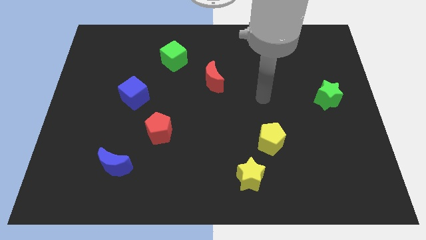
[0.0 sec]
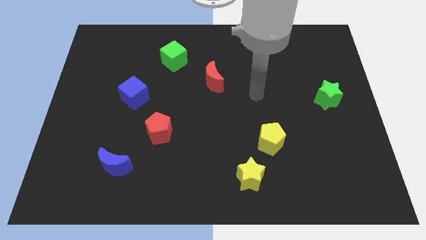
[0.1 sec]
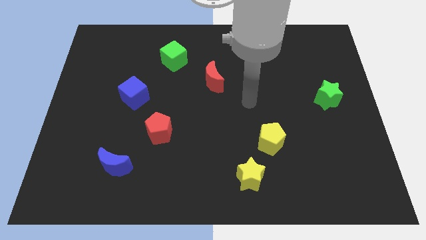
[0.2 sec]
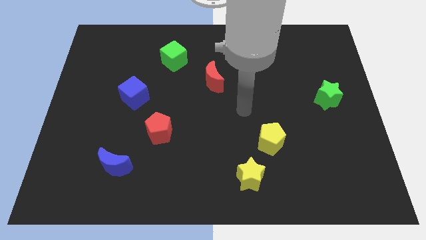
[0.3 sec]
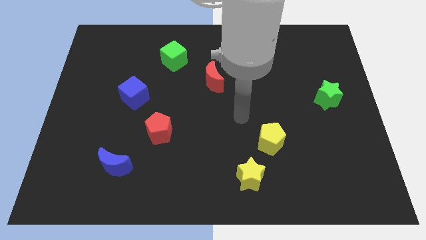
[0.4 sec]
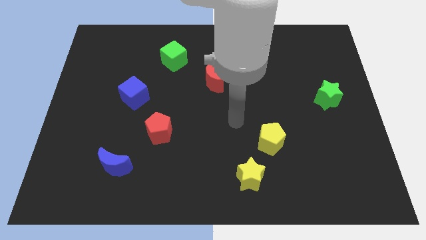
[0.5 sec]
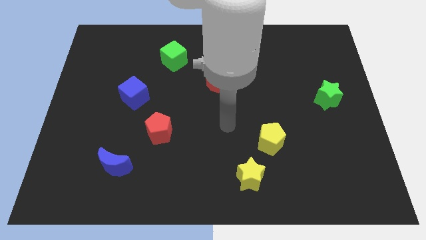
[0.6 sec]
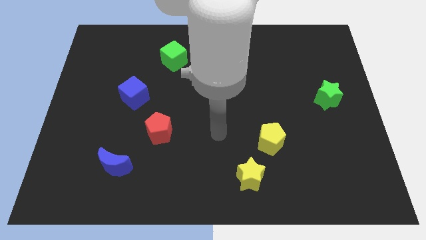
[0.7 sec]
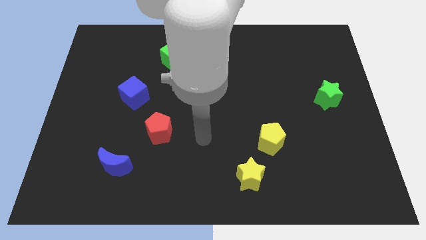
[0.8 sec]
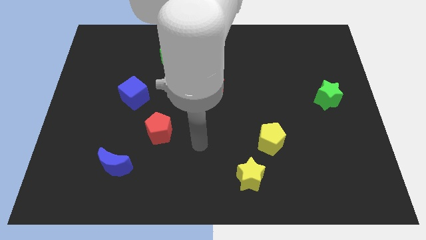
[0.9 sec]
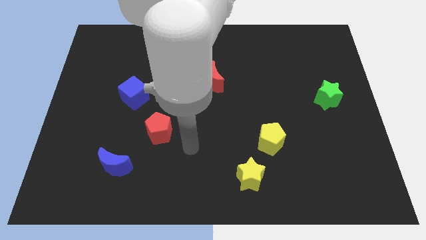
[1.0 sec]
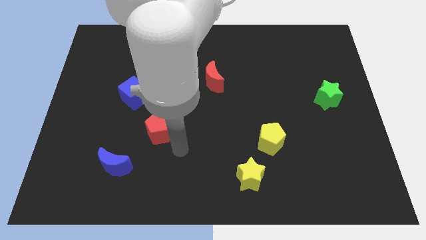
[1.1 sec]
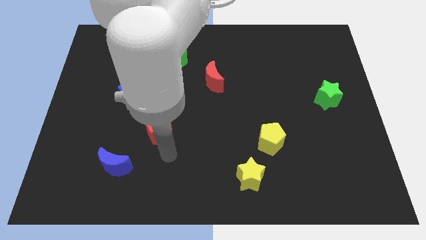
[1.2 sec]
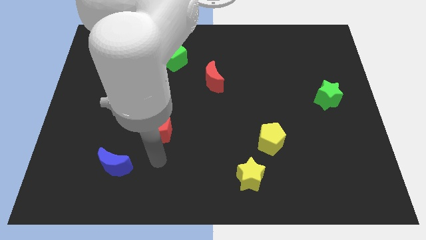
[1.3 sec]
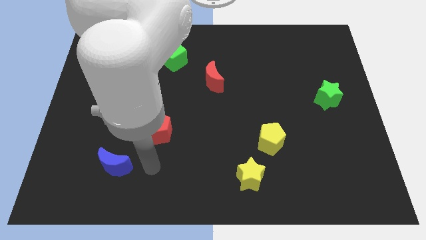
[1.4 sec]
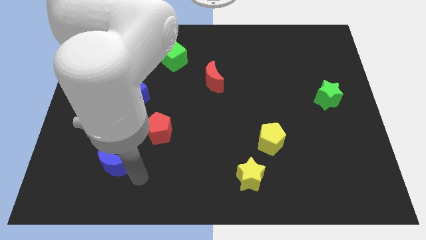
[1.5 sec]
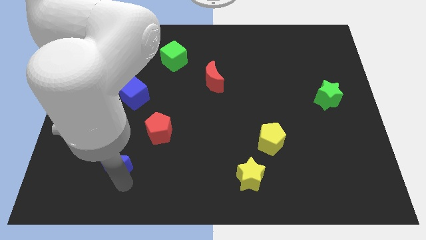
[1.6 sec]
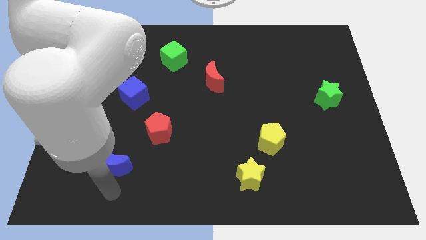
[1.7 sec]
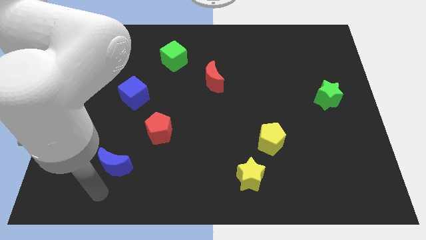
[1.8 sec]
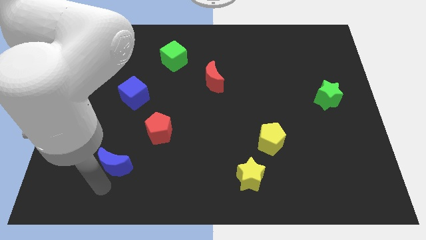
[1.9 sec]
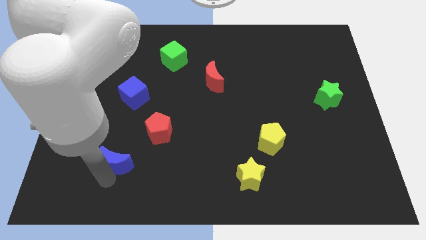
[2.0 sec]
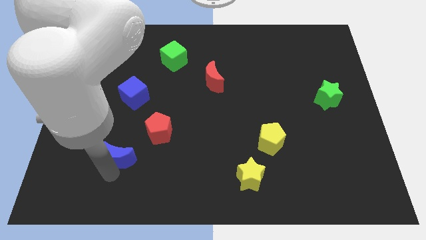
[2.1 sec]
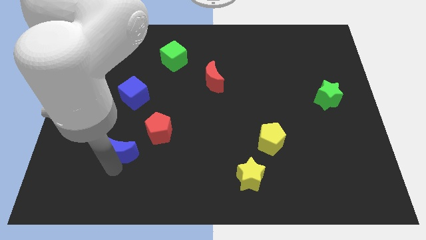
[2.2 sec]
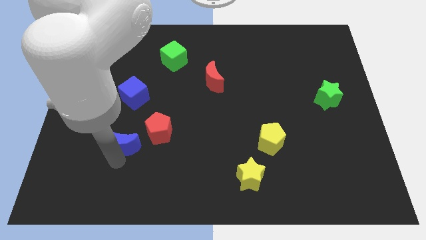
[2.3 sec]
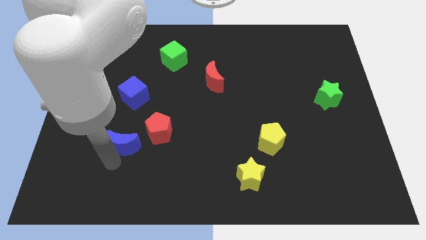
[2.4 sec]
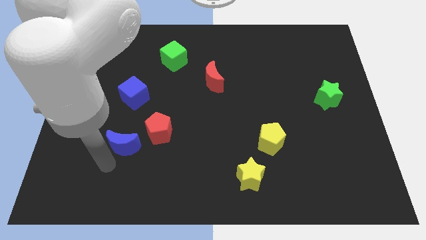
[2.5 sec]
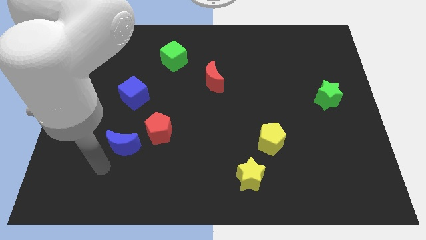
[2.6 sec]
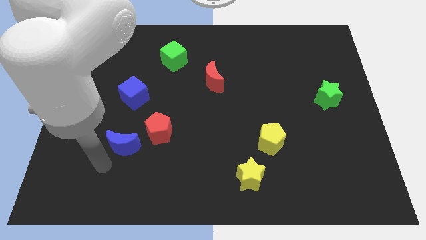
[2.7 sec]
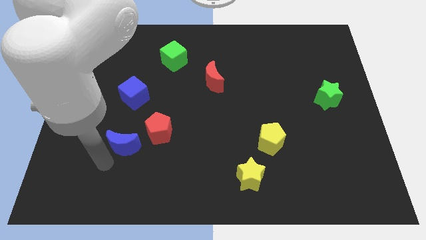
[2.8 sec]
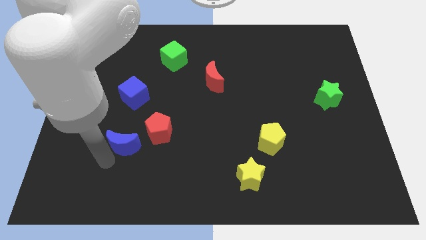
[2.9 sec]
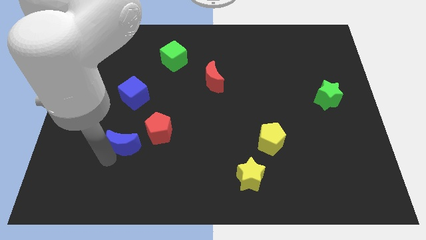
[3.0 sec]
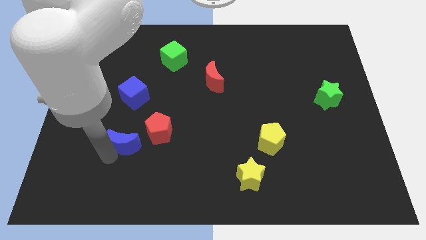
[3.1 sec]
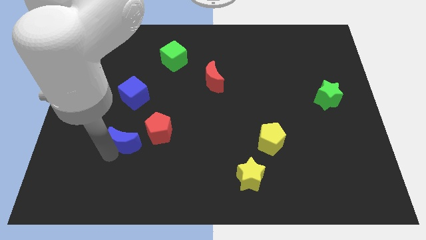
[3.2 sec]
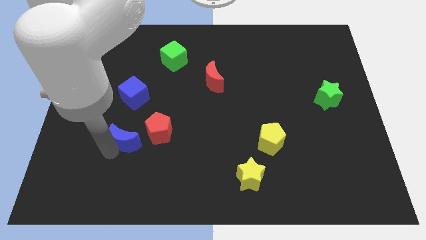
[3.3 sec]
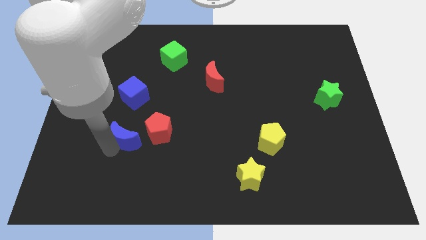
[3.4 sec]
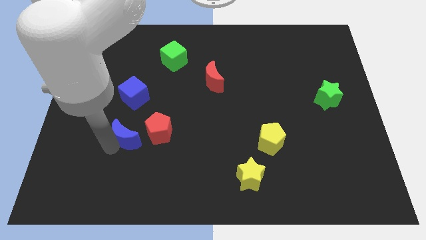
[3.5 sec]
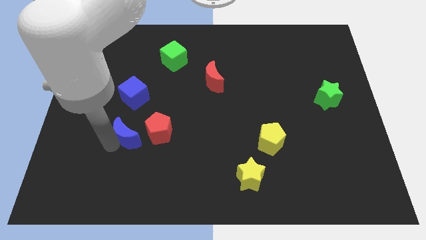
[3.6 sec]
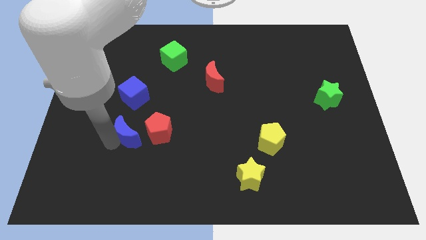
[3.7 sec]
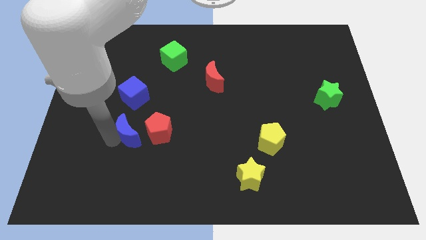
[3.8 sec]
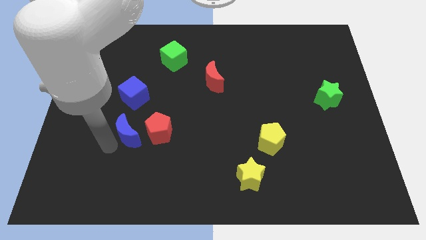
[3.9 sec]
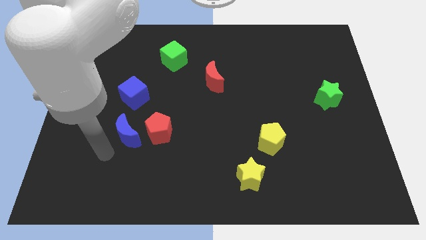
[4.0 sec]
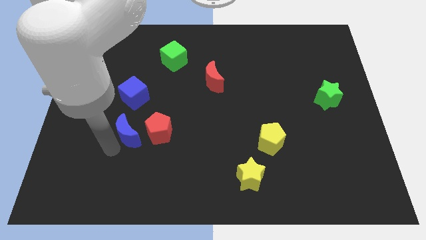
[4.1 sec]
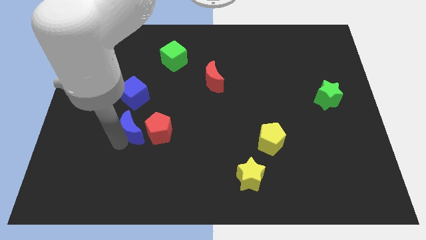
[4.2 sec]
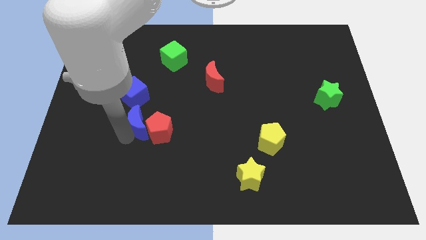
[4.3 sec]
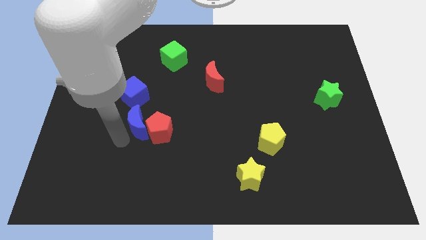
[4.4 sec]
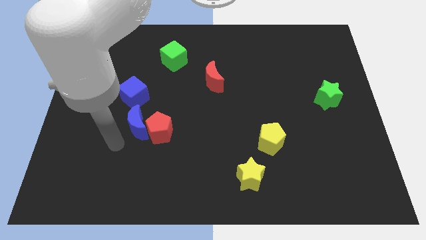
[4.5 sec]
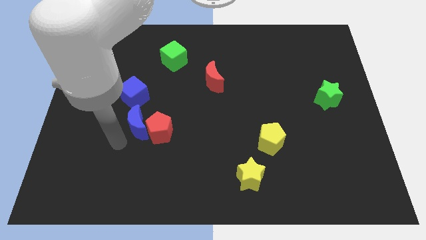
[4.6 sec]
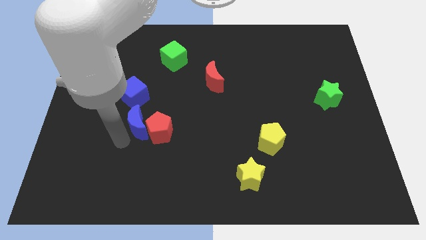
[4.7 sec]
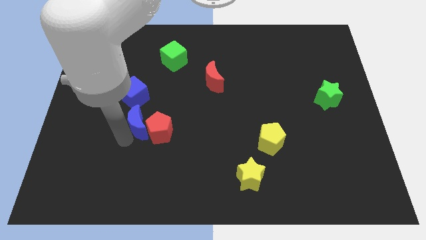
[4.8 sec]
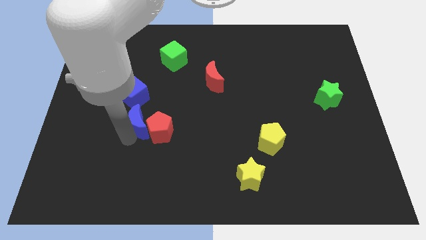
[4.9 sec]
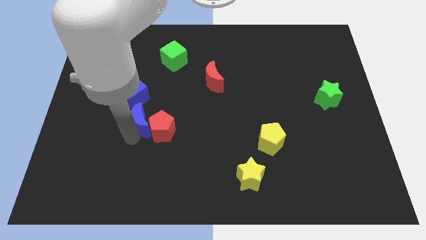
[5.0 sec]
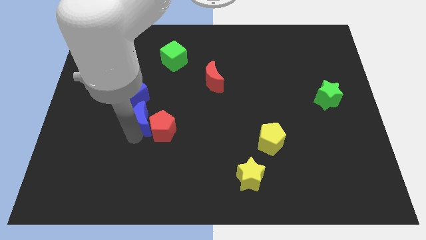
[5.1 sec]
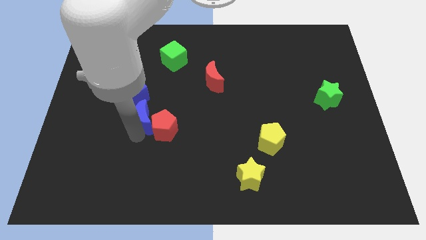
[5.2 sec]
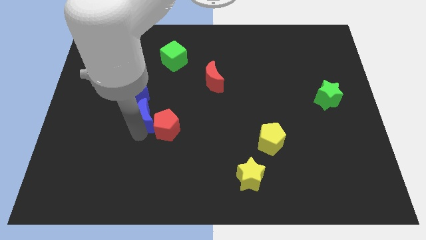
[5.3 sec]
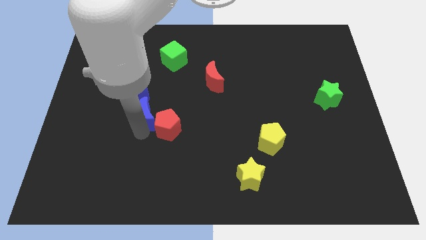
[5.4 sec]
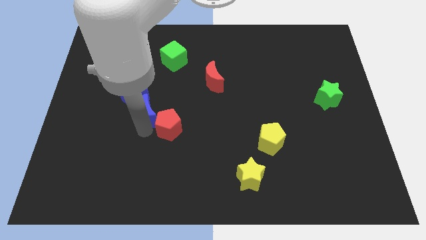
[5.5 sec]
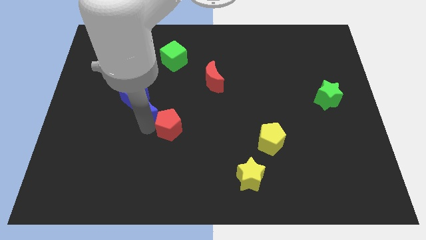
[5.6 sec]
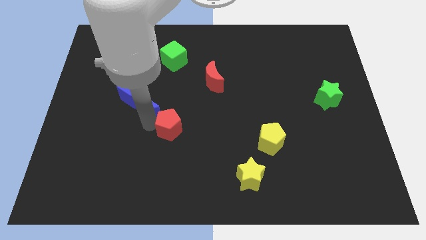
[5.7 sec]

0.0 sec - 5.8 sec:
move the blue moon to the right of the blue cube

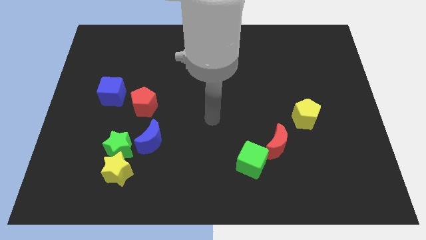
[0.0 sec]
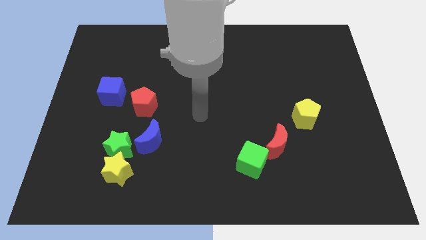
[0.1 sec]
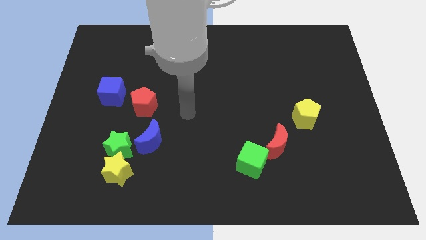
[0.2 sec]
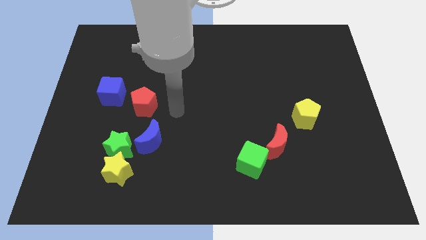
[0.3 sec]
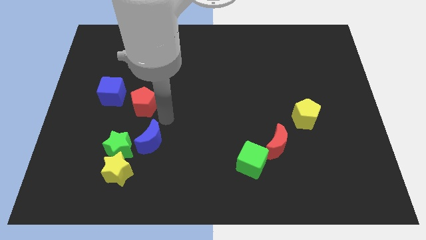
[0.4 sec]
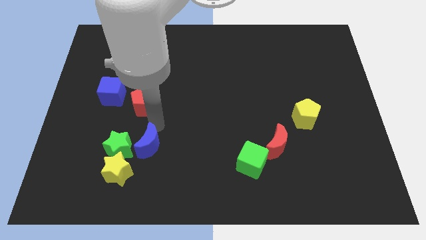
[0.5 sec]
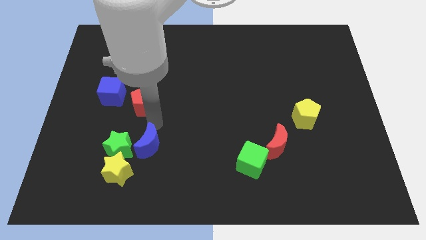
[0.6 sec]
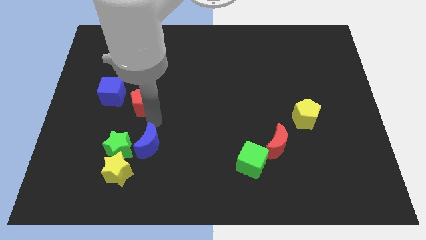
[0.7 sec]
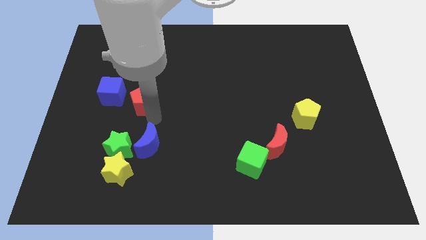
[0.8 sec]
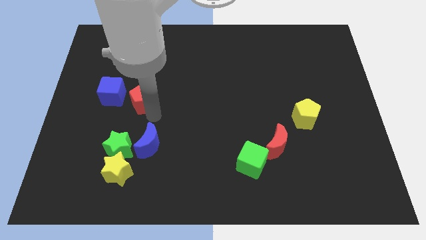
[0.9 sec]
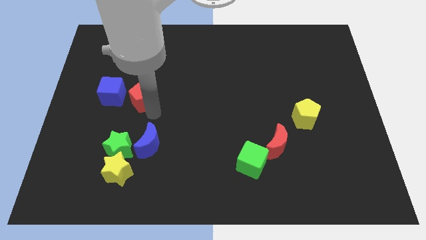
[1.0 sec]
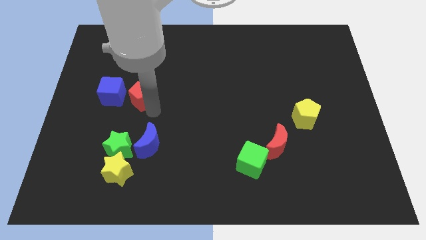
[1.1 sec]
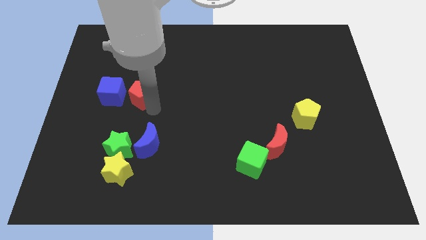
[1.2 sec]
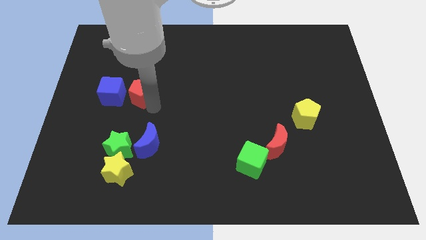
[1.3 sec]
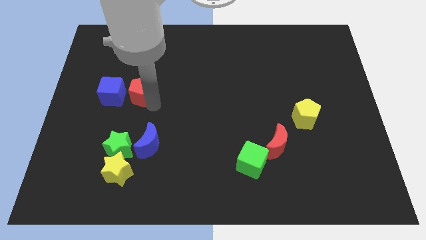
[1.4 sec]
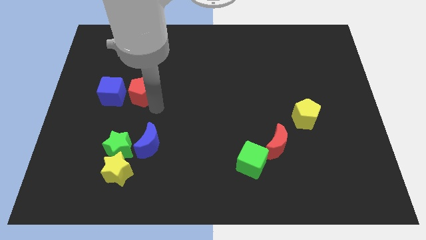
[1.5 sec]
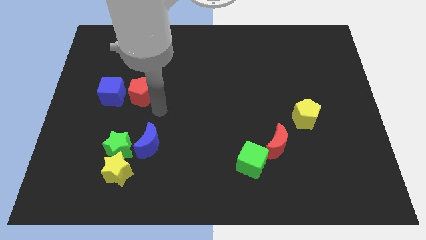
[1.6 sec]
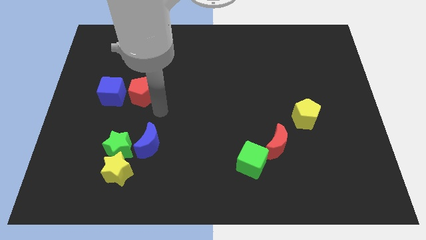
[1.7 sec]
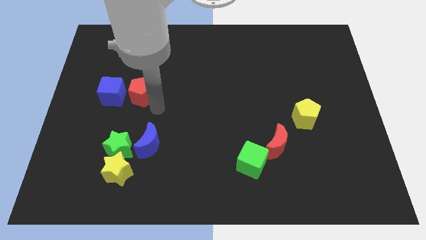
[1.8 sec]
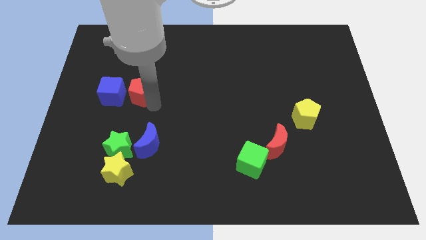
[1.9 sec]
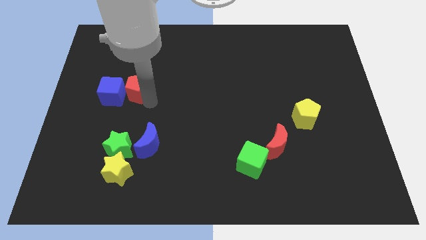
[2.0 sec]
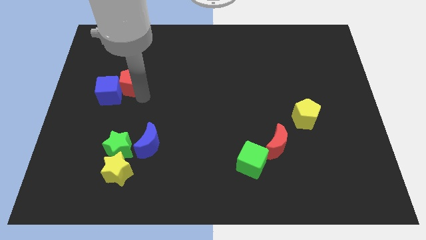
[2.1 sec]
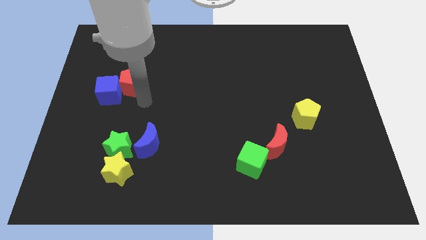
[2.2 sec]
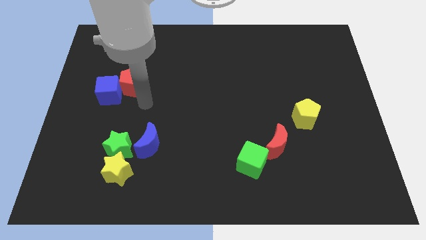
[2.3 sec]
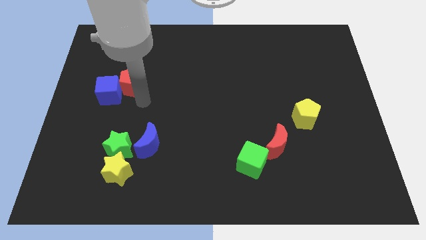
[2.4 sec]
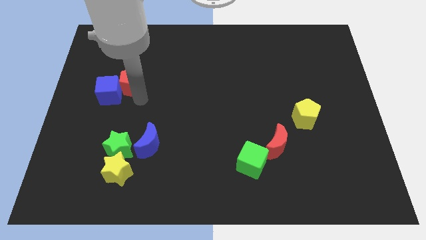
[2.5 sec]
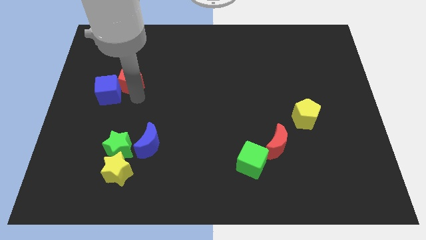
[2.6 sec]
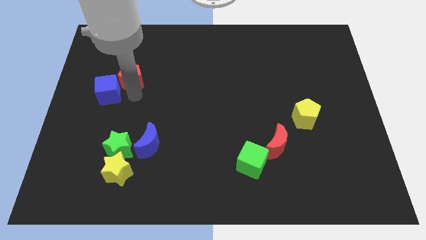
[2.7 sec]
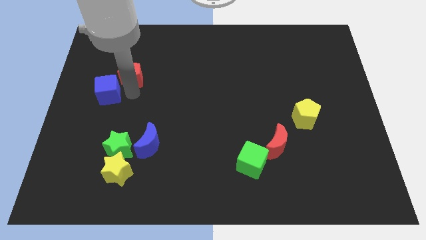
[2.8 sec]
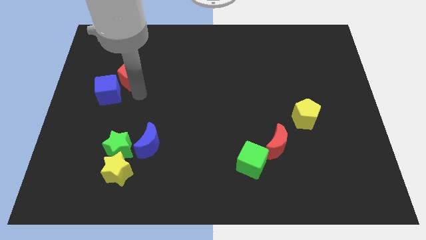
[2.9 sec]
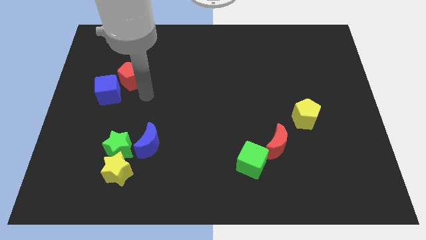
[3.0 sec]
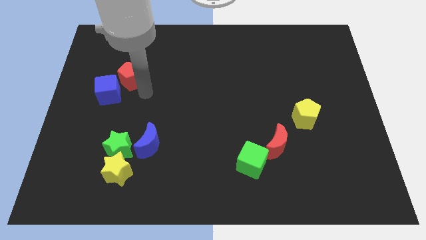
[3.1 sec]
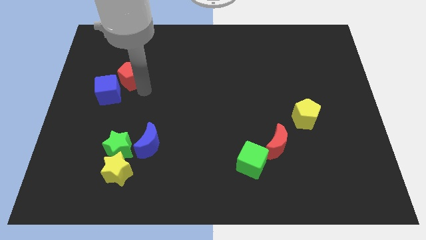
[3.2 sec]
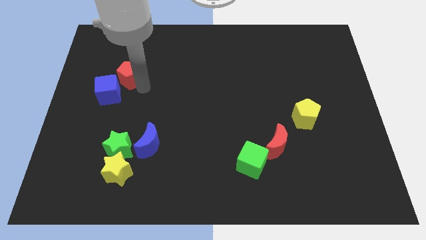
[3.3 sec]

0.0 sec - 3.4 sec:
push the red pentagon to the top of the blue cube
